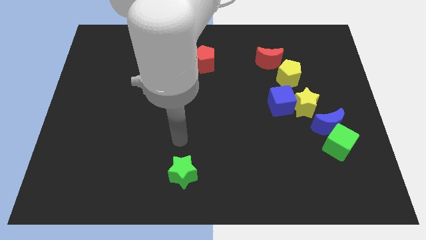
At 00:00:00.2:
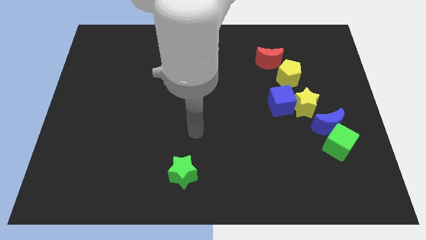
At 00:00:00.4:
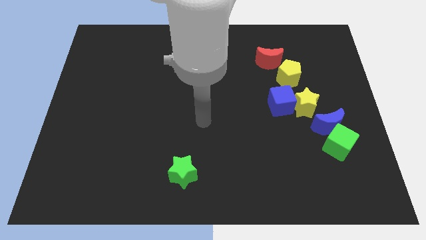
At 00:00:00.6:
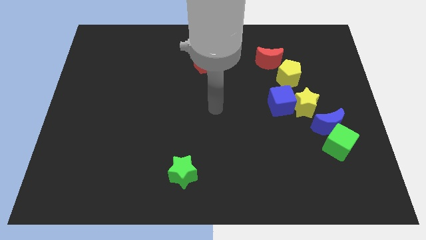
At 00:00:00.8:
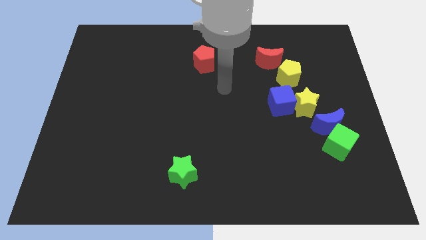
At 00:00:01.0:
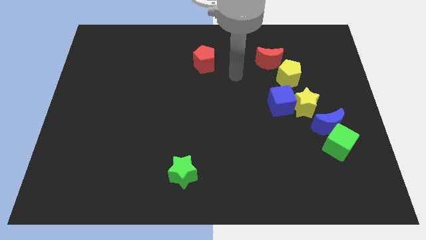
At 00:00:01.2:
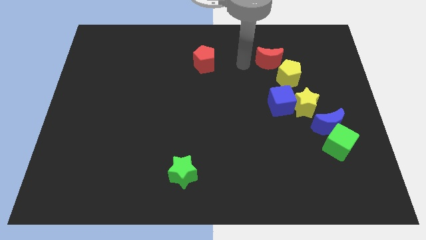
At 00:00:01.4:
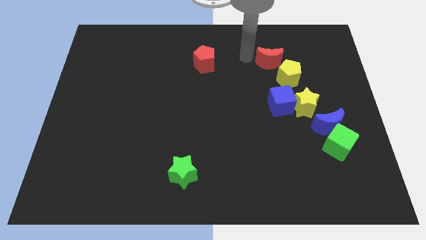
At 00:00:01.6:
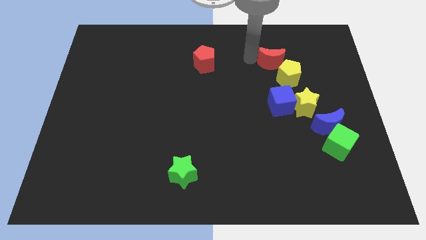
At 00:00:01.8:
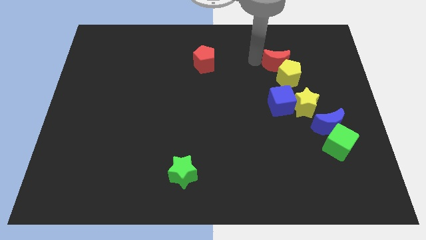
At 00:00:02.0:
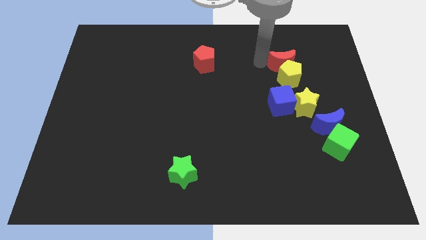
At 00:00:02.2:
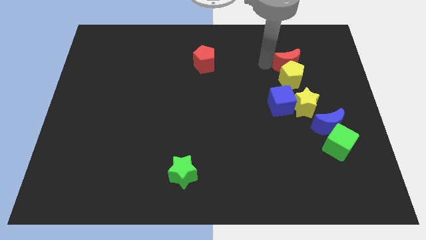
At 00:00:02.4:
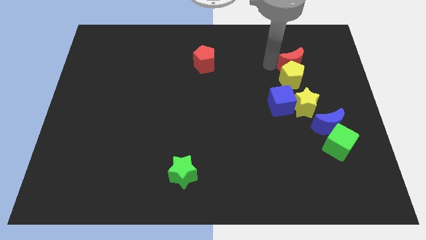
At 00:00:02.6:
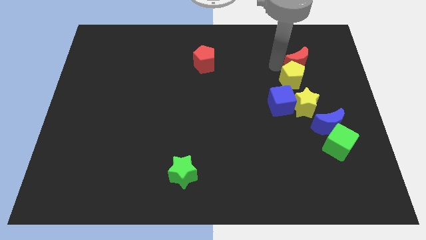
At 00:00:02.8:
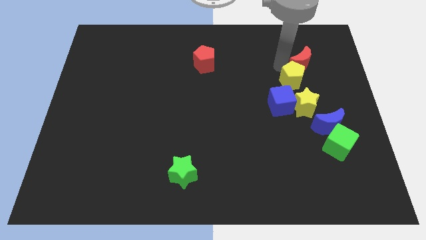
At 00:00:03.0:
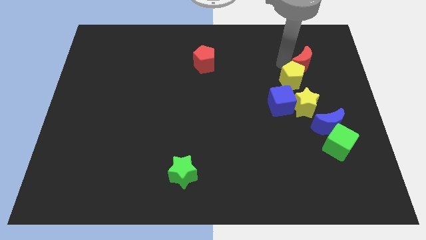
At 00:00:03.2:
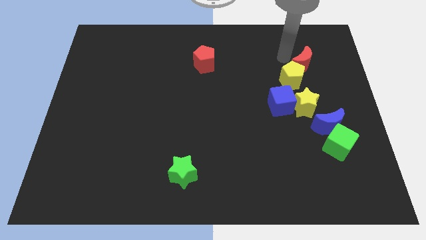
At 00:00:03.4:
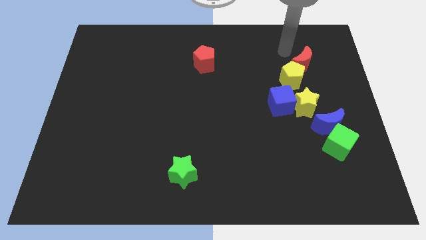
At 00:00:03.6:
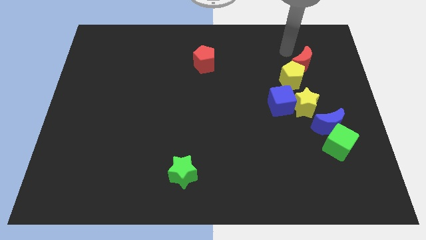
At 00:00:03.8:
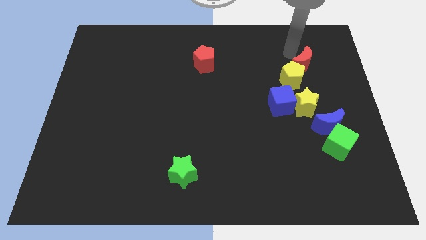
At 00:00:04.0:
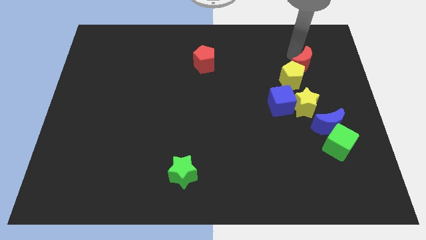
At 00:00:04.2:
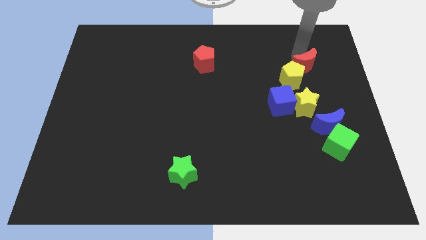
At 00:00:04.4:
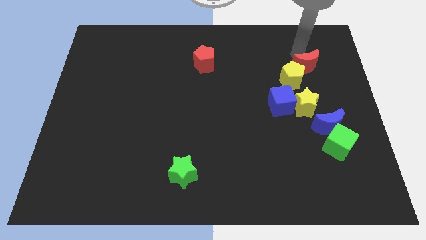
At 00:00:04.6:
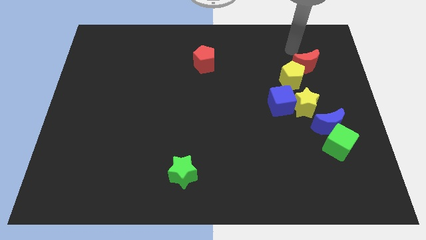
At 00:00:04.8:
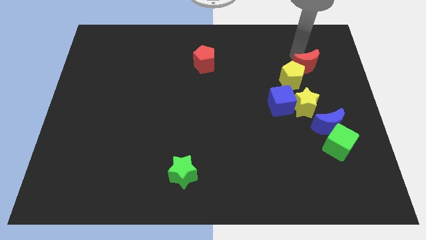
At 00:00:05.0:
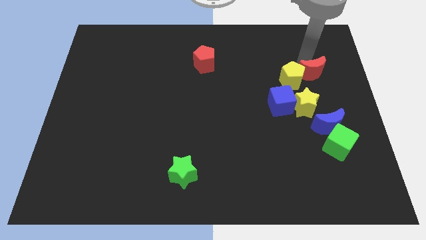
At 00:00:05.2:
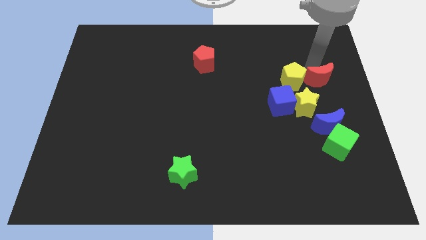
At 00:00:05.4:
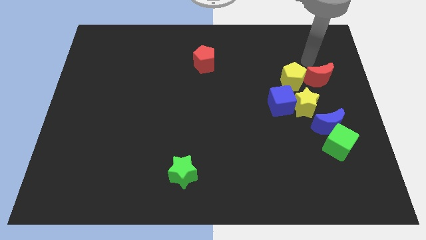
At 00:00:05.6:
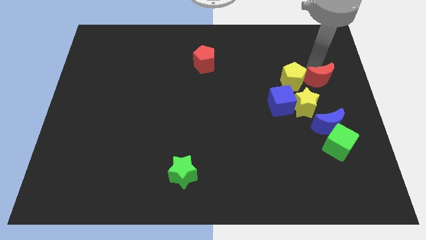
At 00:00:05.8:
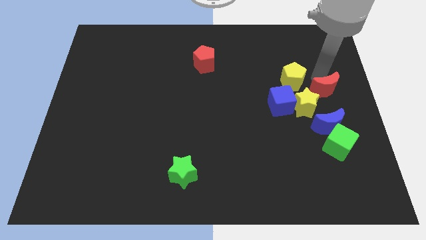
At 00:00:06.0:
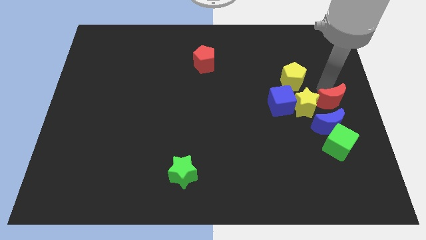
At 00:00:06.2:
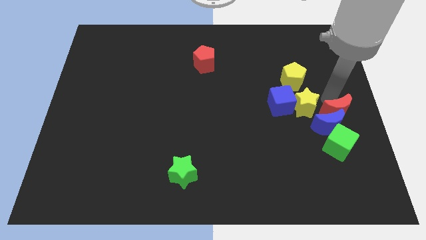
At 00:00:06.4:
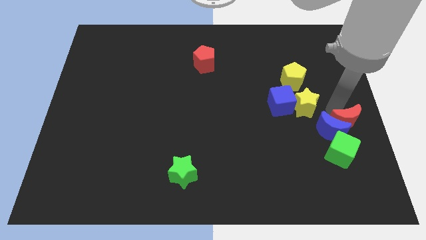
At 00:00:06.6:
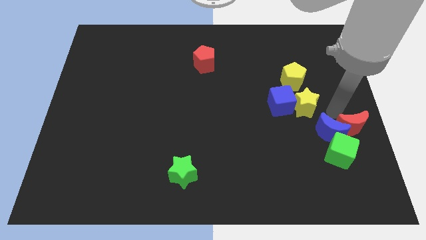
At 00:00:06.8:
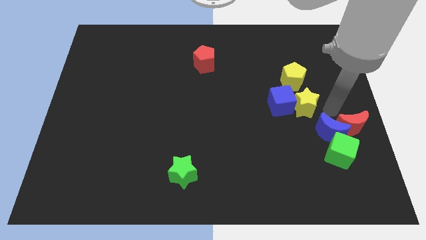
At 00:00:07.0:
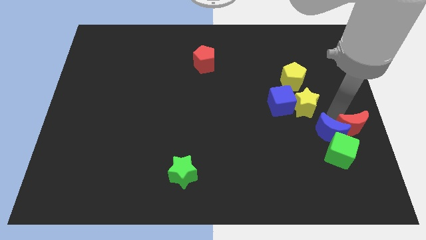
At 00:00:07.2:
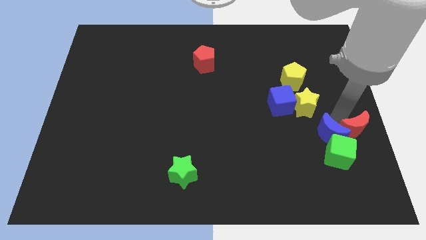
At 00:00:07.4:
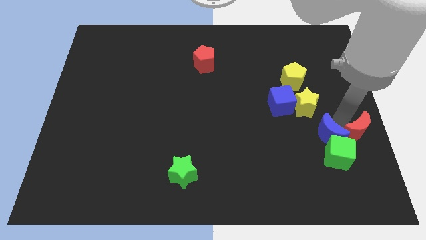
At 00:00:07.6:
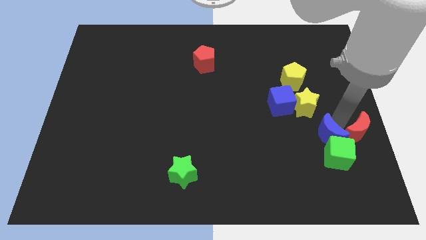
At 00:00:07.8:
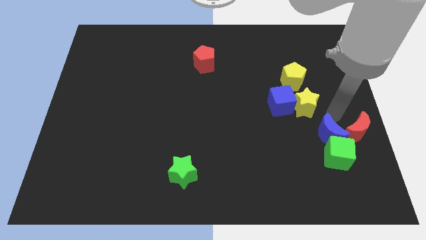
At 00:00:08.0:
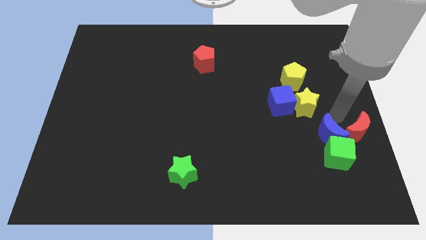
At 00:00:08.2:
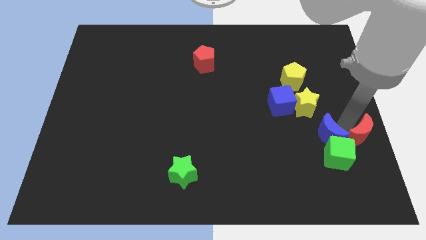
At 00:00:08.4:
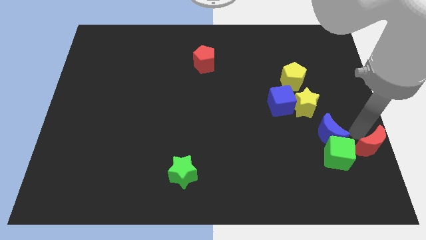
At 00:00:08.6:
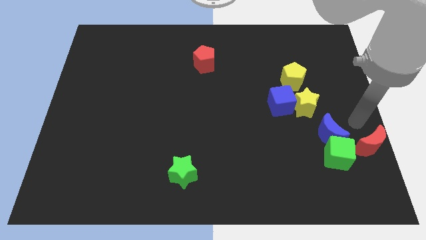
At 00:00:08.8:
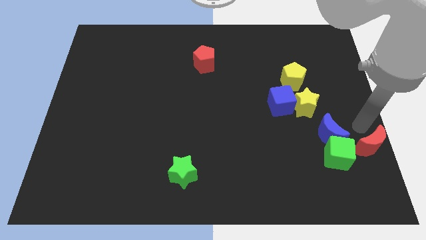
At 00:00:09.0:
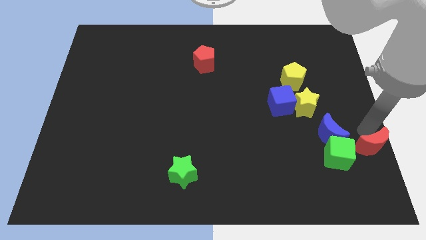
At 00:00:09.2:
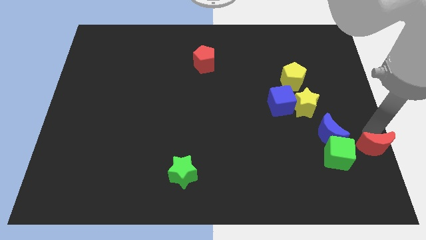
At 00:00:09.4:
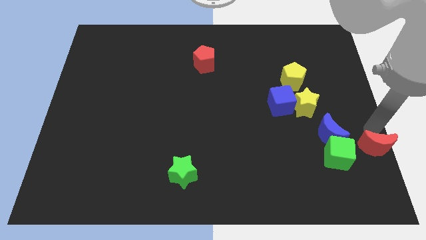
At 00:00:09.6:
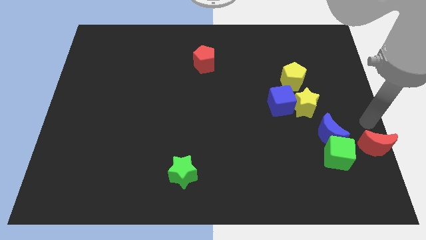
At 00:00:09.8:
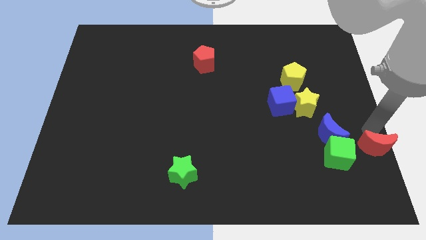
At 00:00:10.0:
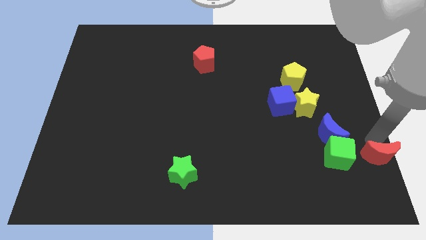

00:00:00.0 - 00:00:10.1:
put the red moon to the lower right corner
